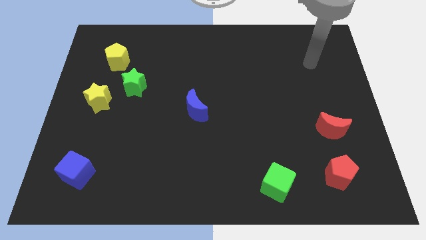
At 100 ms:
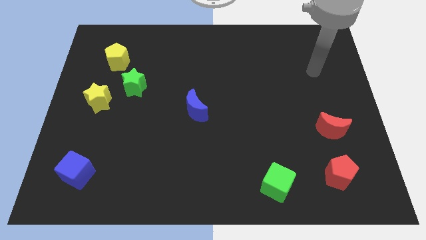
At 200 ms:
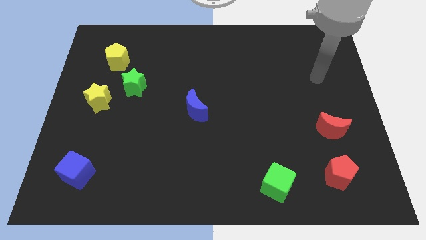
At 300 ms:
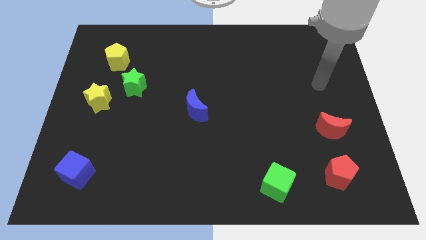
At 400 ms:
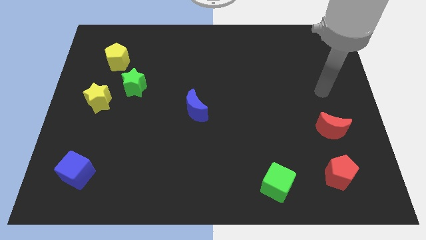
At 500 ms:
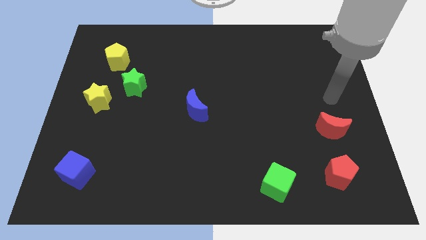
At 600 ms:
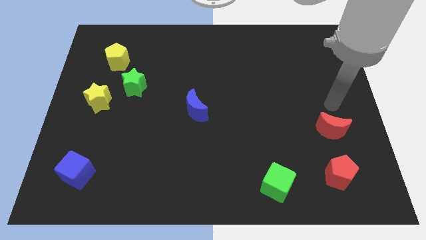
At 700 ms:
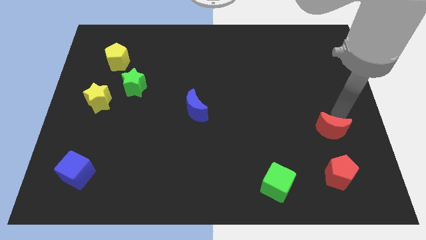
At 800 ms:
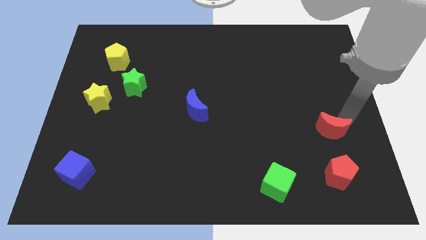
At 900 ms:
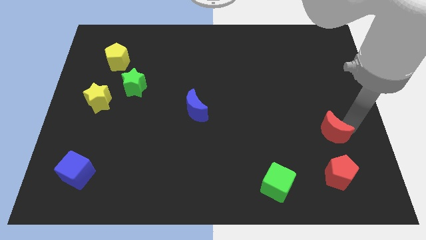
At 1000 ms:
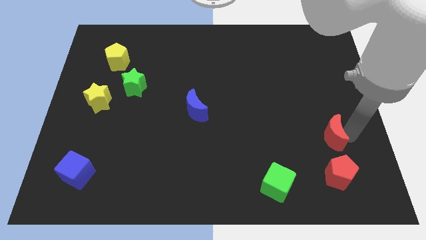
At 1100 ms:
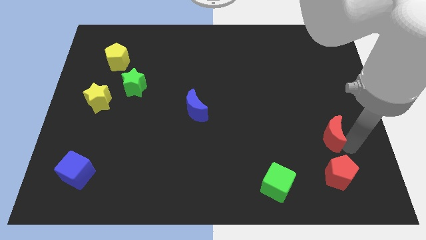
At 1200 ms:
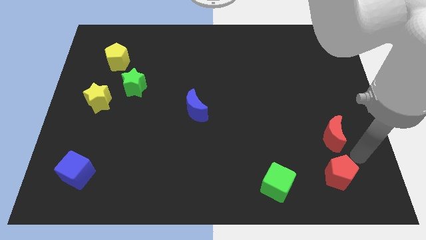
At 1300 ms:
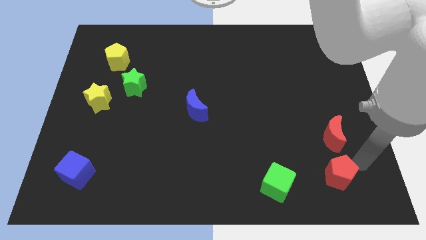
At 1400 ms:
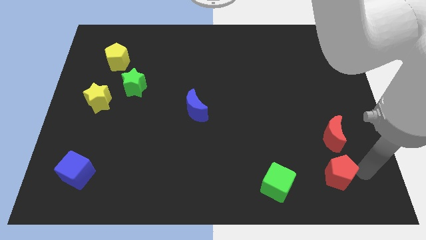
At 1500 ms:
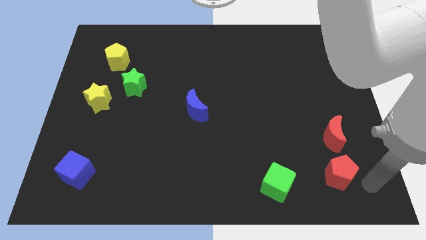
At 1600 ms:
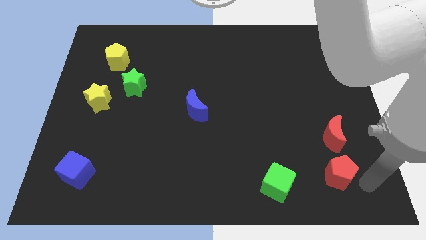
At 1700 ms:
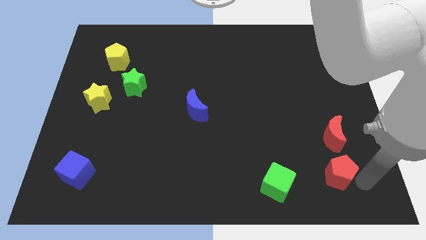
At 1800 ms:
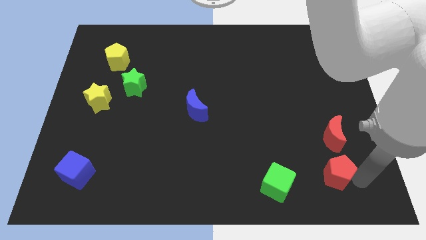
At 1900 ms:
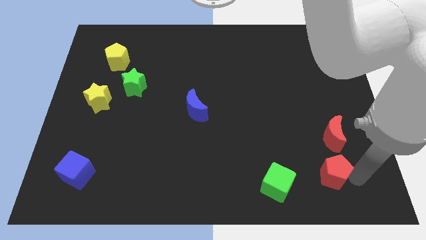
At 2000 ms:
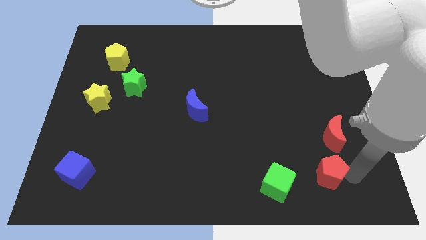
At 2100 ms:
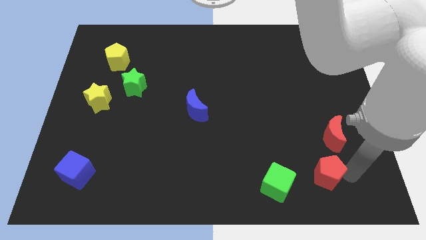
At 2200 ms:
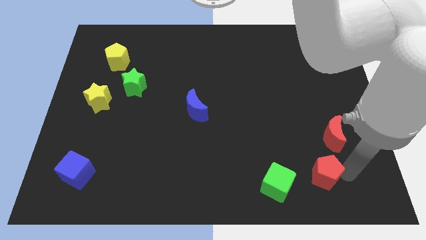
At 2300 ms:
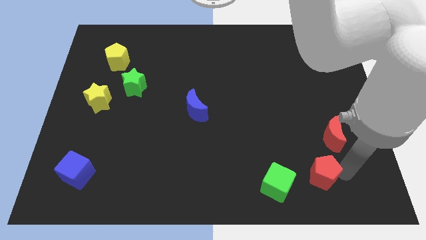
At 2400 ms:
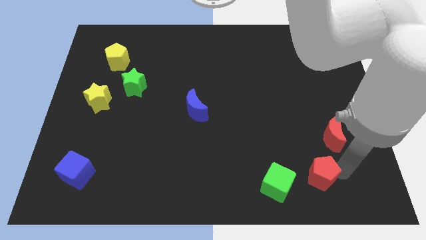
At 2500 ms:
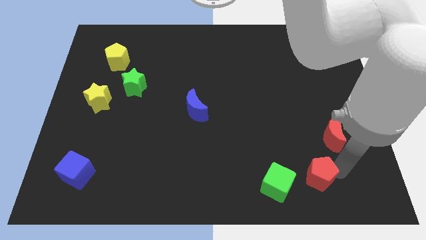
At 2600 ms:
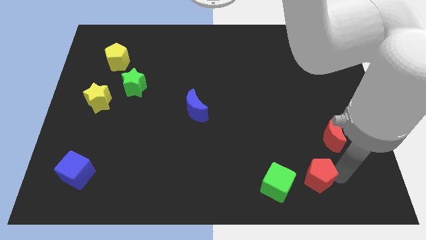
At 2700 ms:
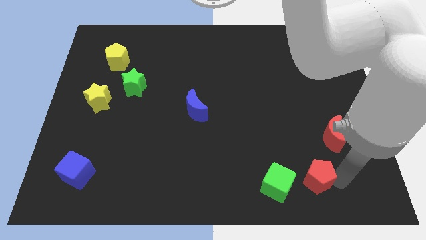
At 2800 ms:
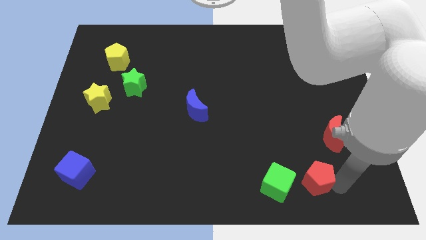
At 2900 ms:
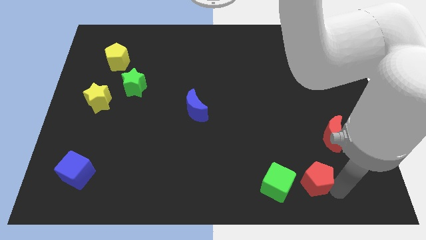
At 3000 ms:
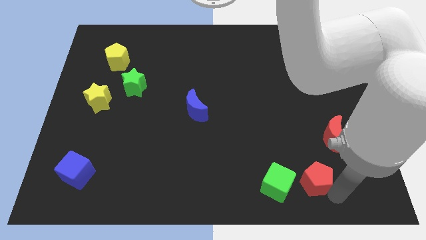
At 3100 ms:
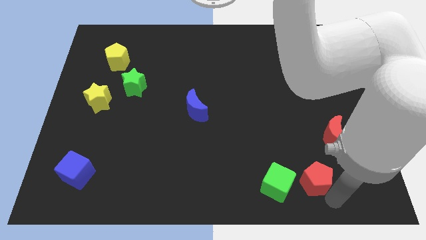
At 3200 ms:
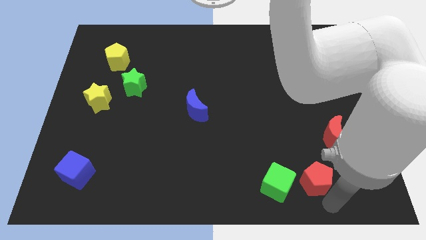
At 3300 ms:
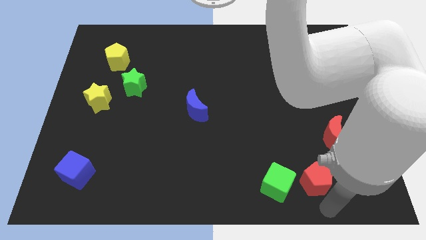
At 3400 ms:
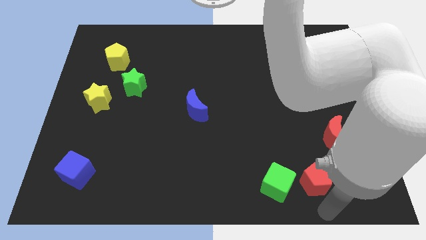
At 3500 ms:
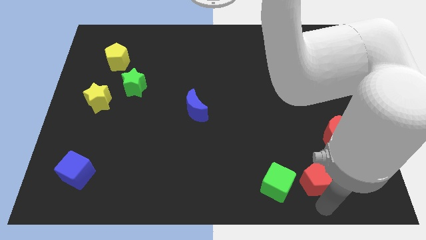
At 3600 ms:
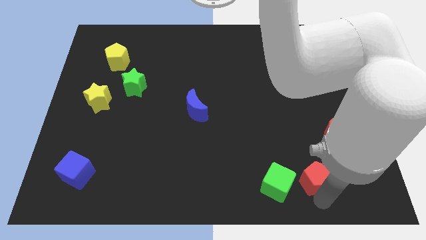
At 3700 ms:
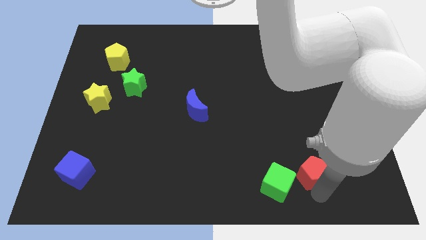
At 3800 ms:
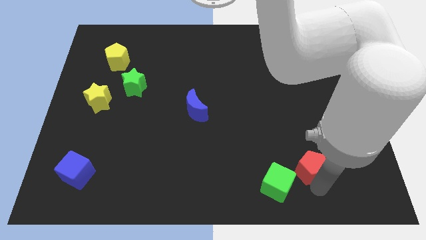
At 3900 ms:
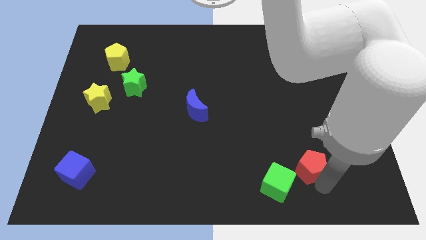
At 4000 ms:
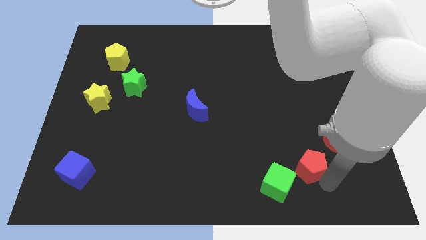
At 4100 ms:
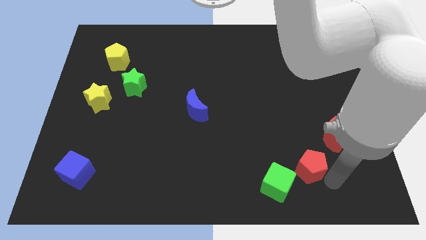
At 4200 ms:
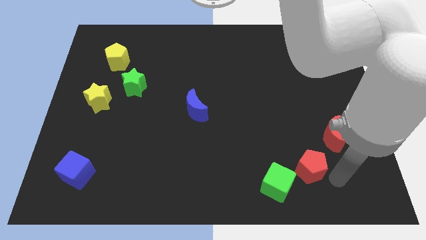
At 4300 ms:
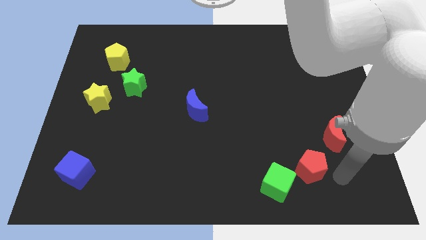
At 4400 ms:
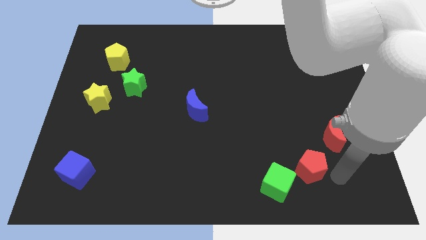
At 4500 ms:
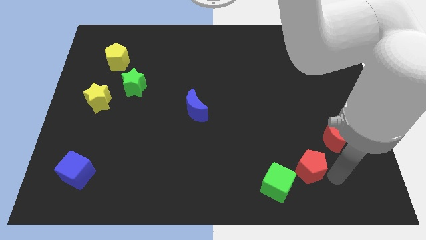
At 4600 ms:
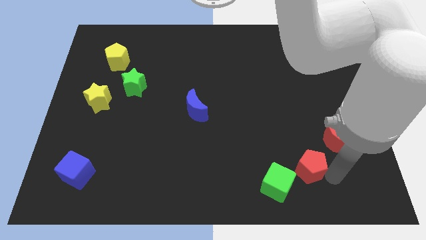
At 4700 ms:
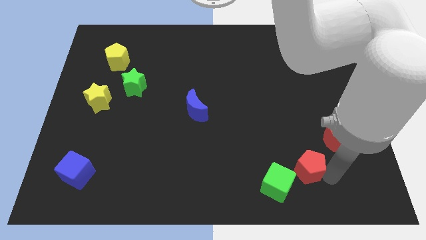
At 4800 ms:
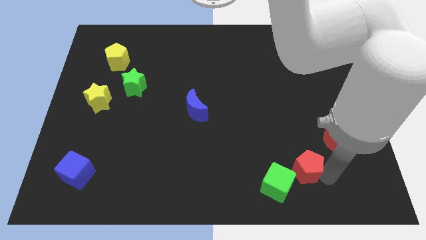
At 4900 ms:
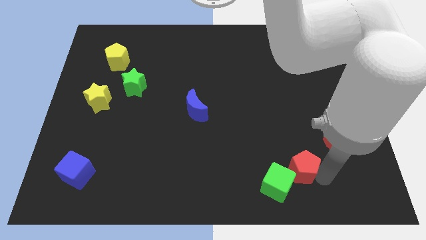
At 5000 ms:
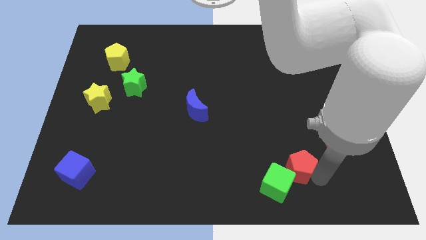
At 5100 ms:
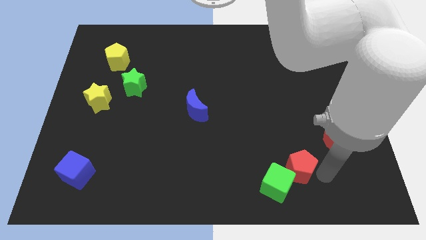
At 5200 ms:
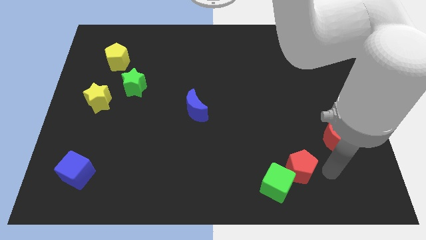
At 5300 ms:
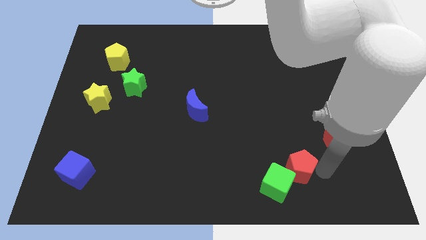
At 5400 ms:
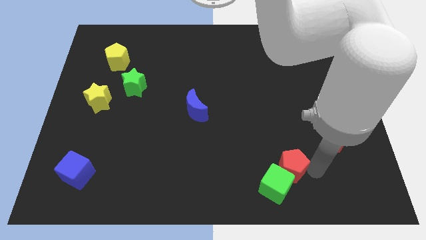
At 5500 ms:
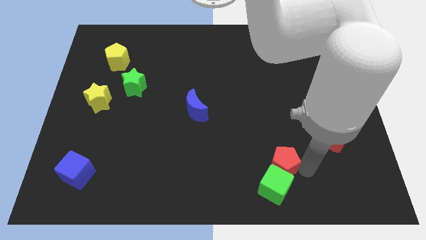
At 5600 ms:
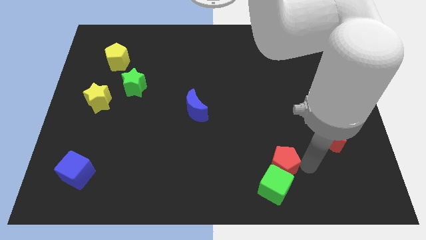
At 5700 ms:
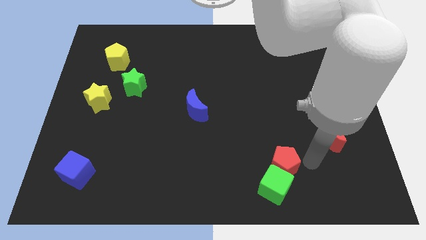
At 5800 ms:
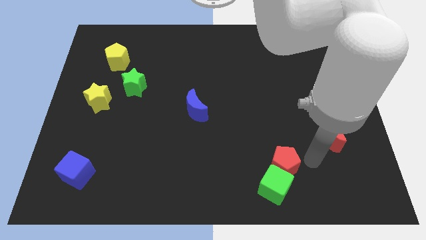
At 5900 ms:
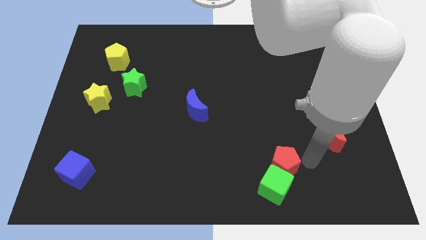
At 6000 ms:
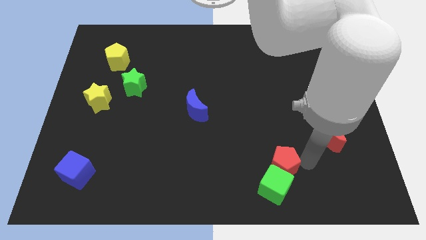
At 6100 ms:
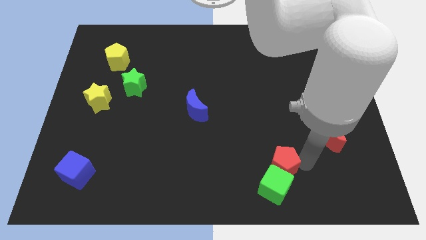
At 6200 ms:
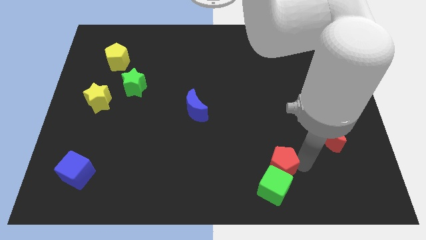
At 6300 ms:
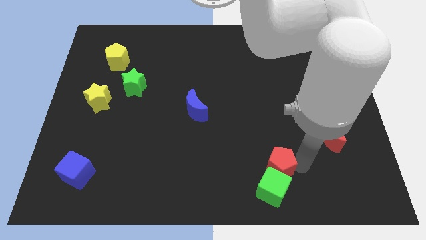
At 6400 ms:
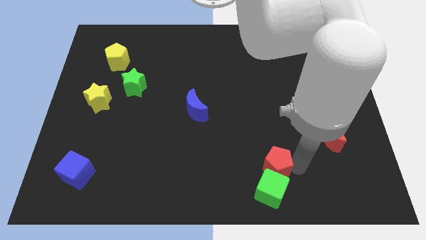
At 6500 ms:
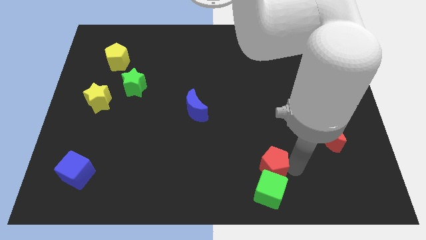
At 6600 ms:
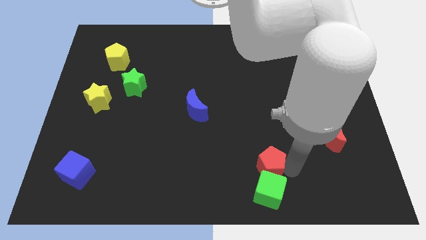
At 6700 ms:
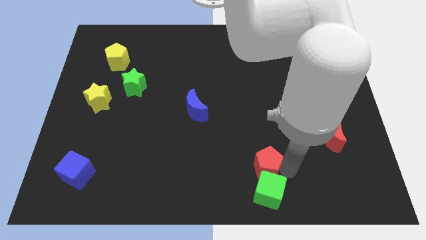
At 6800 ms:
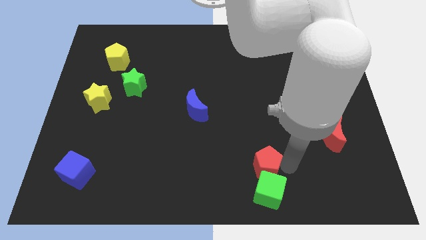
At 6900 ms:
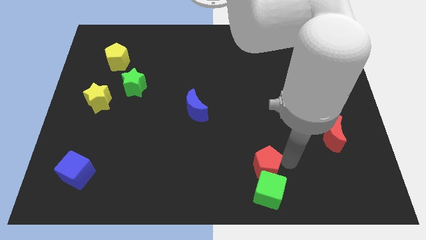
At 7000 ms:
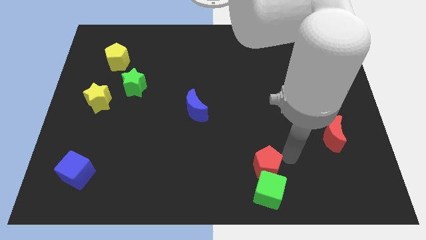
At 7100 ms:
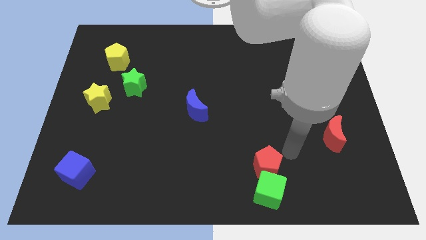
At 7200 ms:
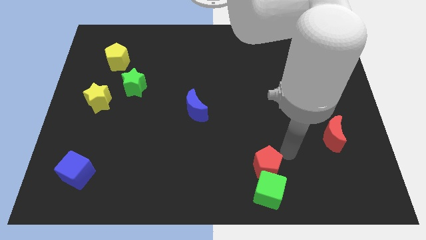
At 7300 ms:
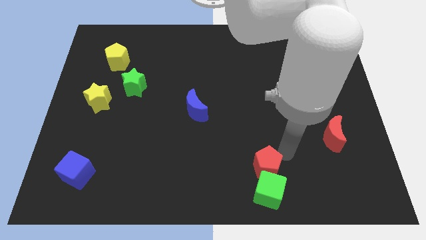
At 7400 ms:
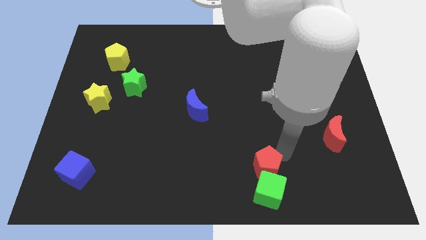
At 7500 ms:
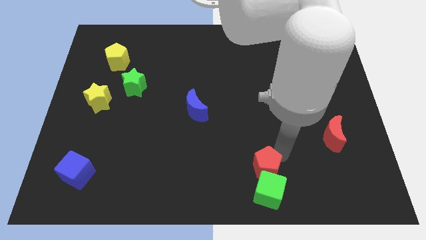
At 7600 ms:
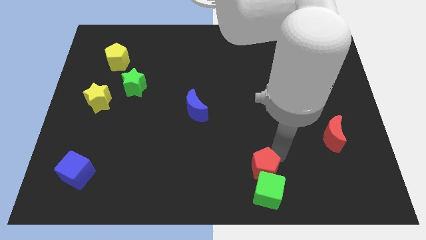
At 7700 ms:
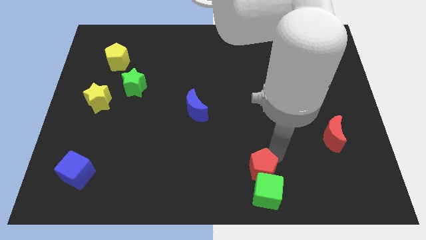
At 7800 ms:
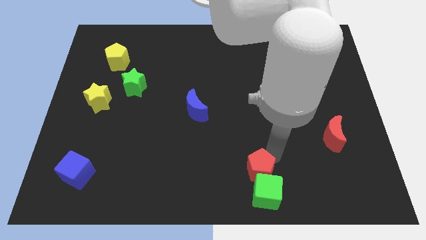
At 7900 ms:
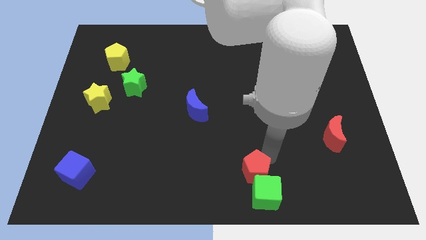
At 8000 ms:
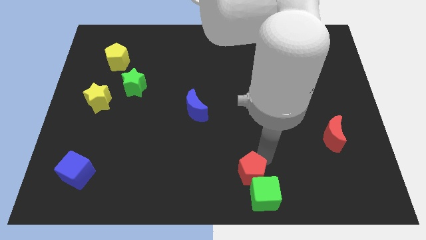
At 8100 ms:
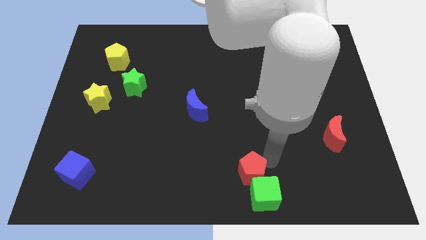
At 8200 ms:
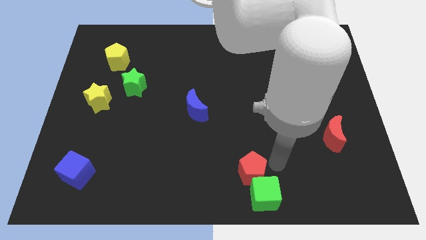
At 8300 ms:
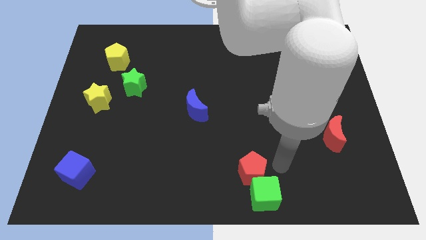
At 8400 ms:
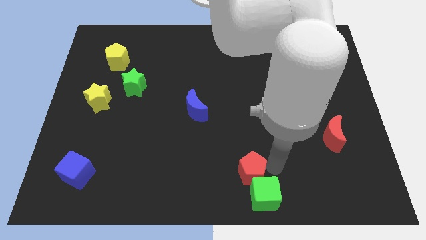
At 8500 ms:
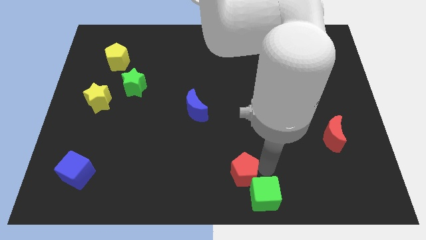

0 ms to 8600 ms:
slide the red pentagon to the left
